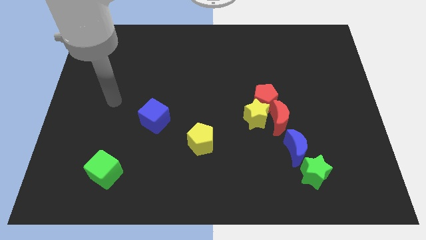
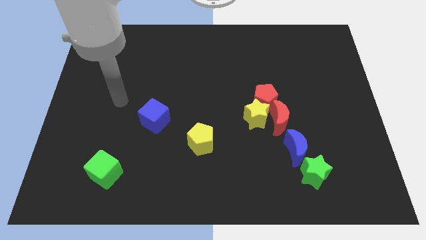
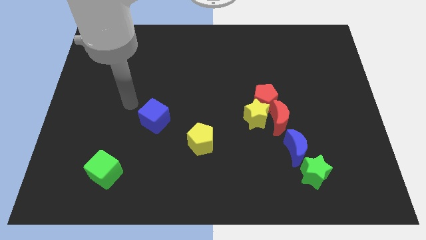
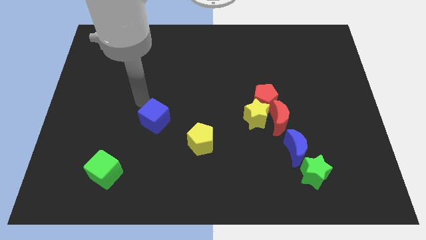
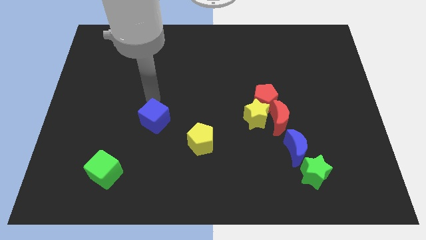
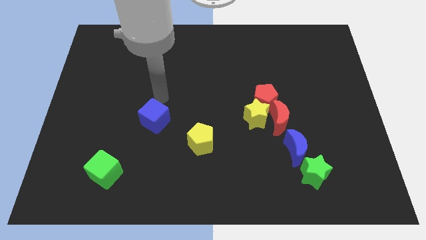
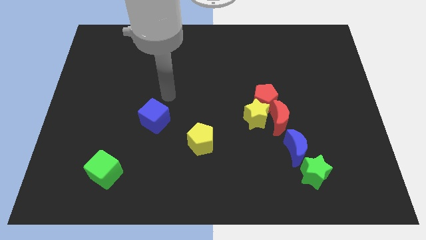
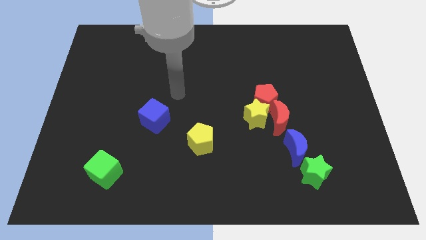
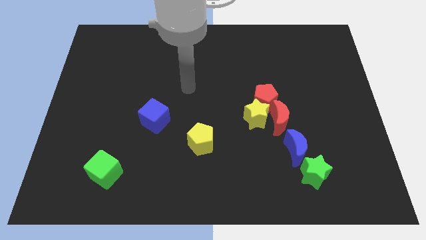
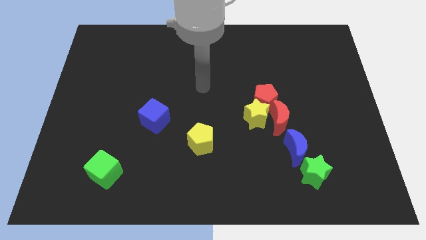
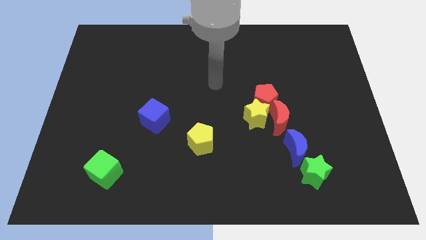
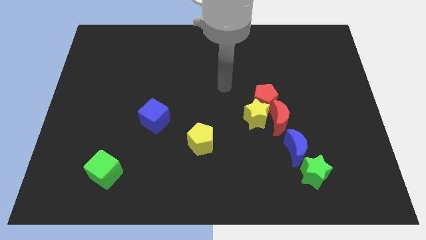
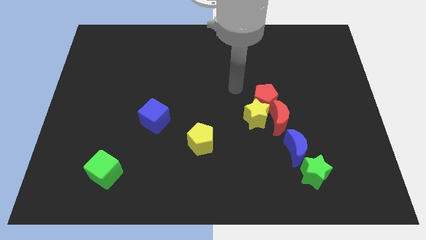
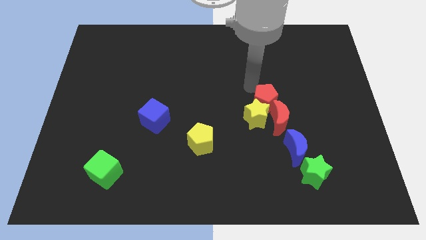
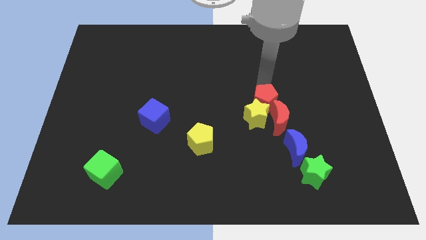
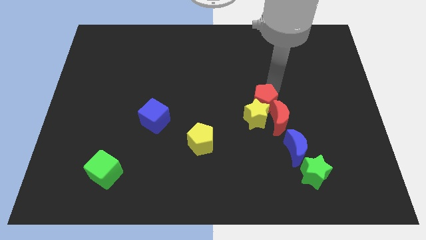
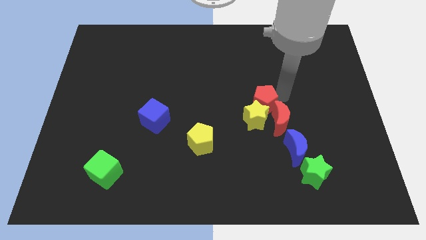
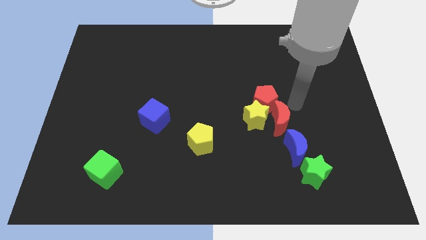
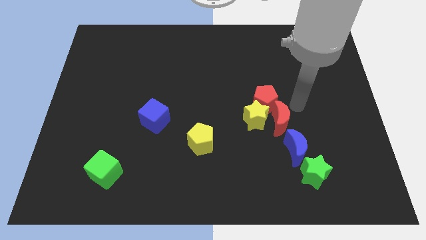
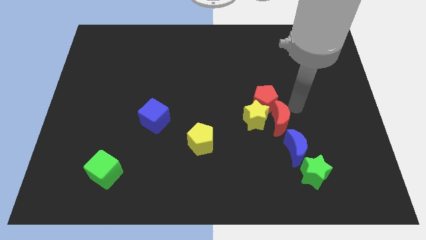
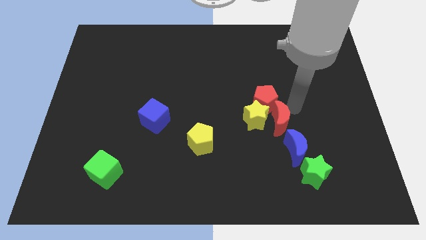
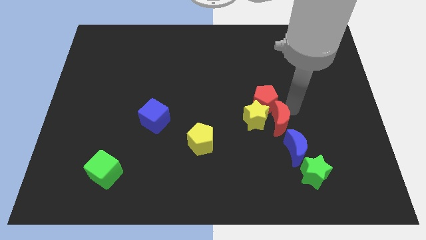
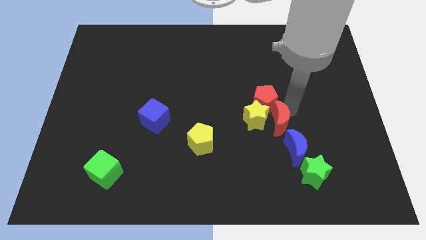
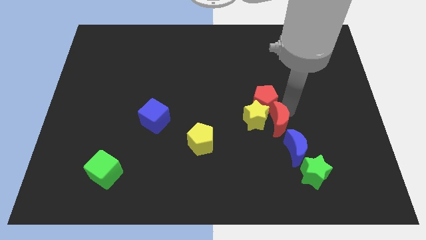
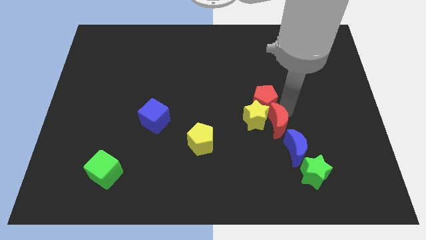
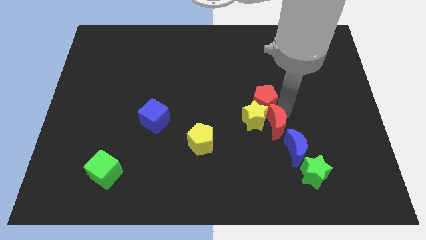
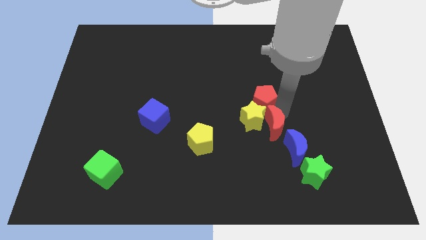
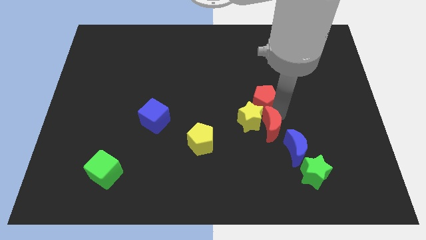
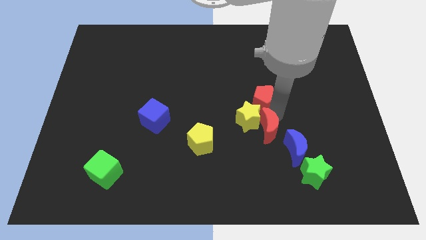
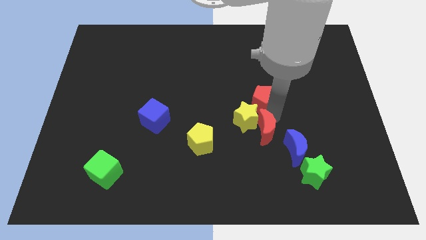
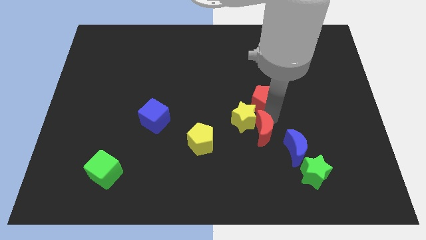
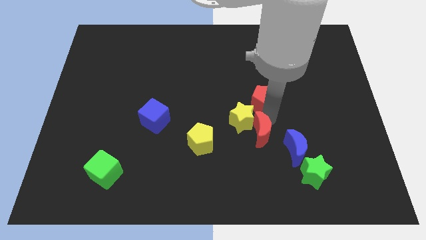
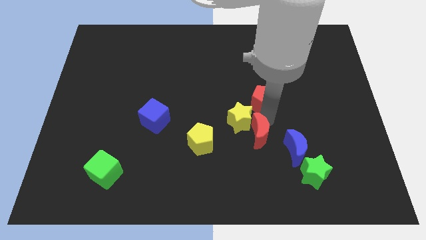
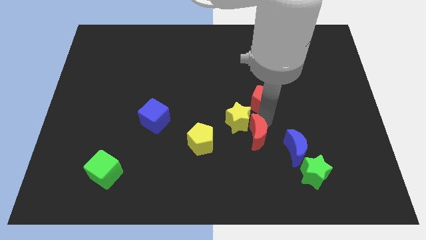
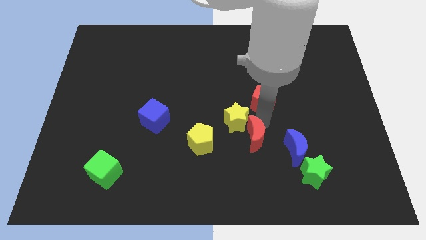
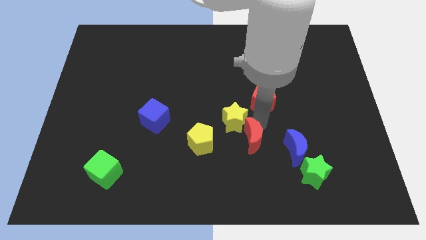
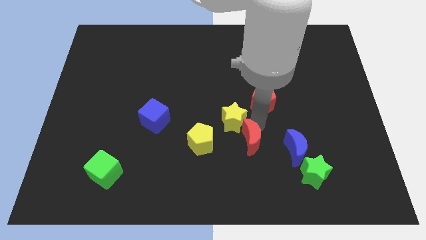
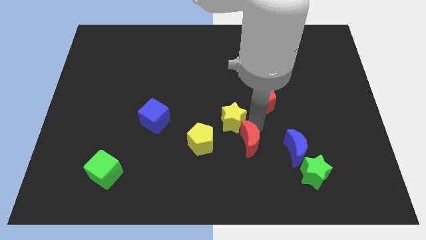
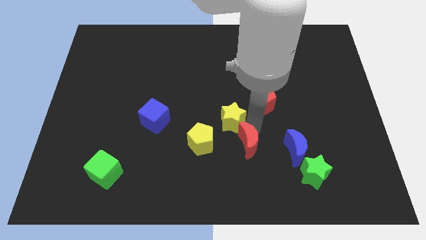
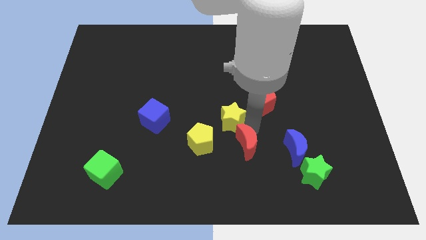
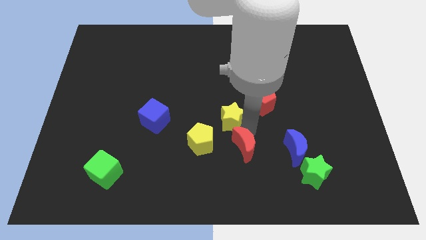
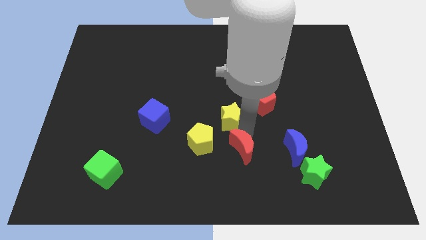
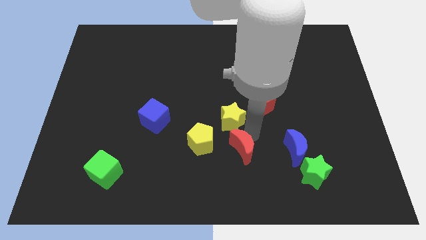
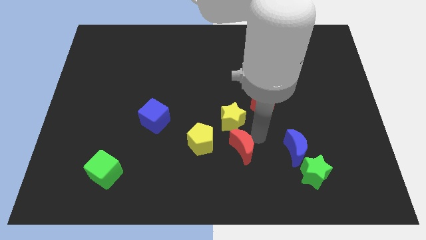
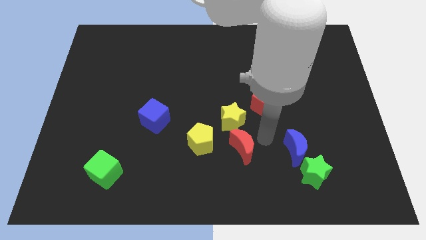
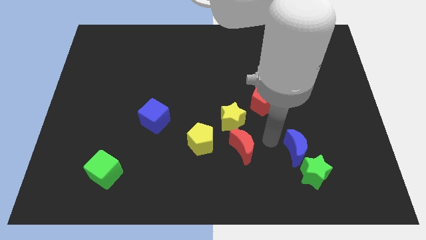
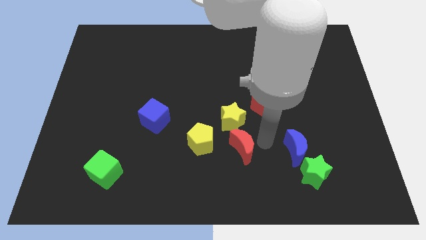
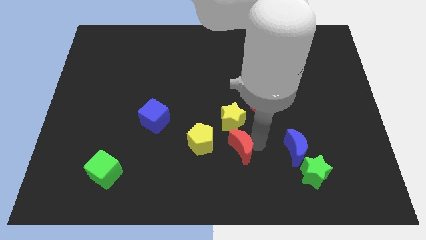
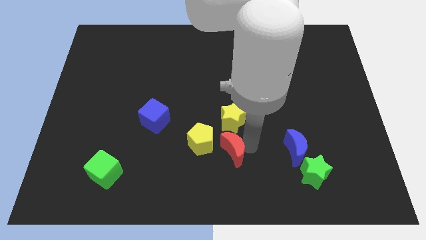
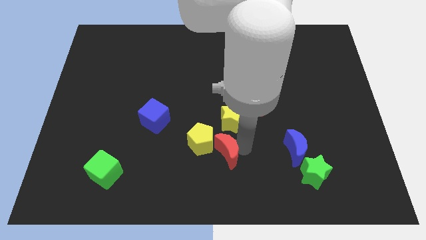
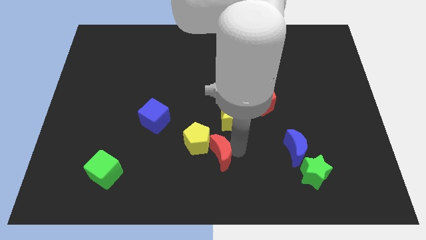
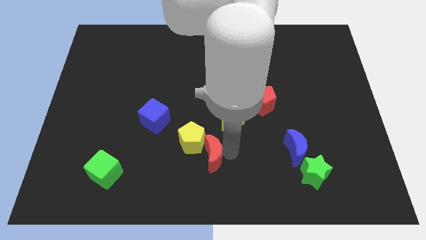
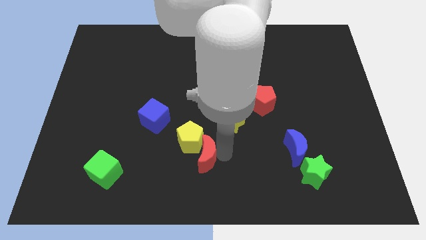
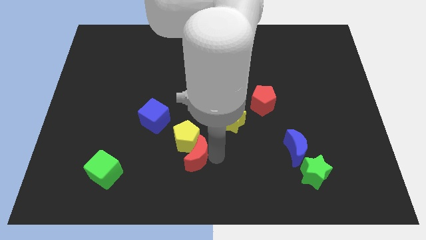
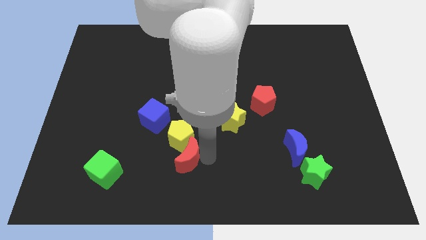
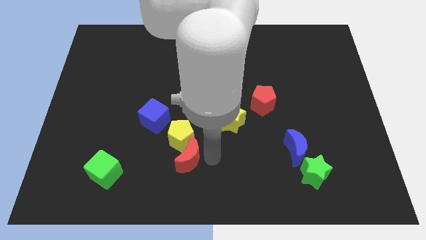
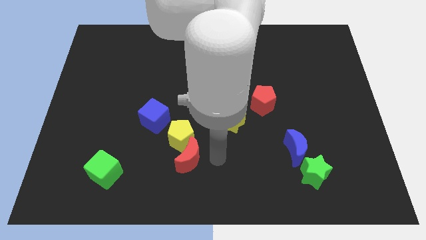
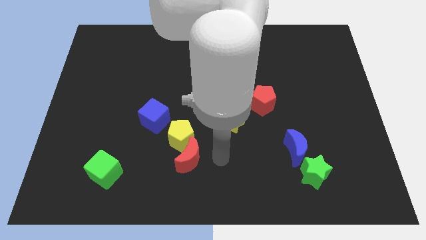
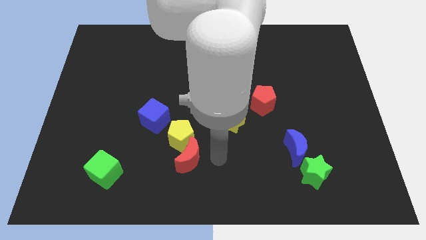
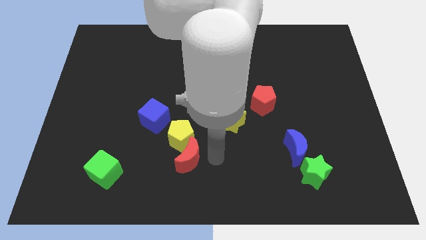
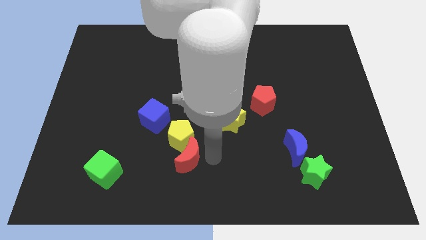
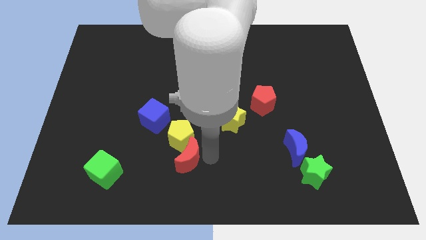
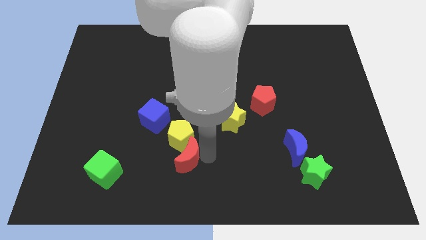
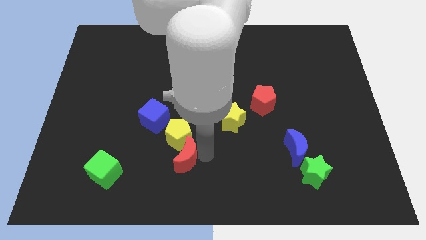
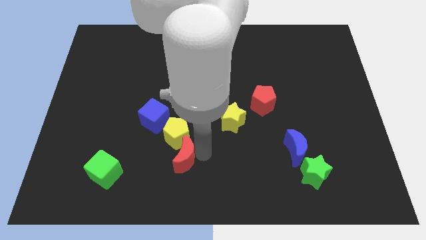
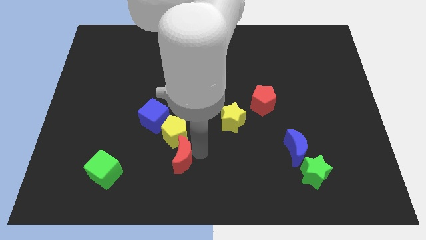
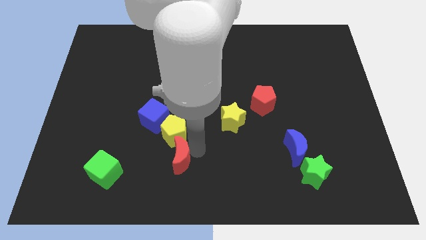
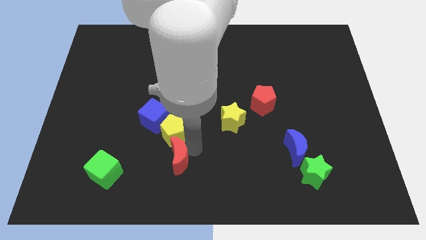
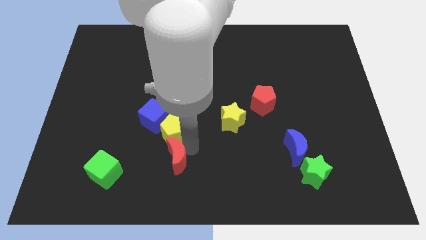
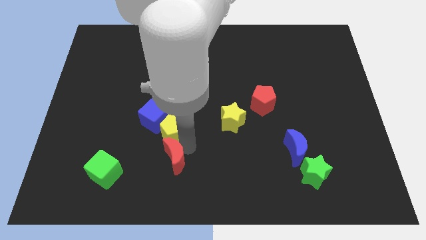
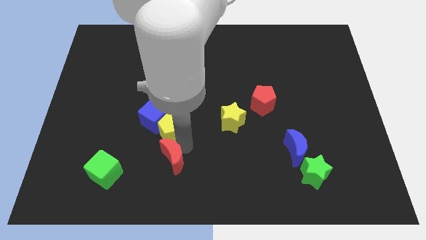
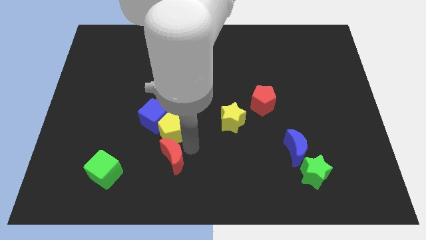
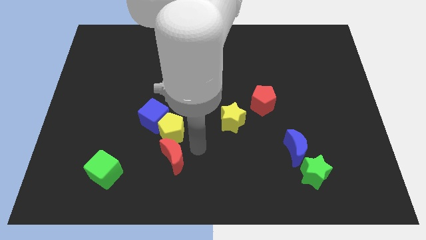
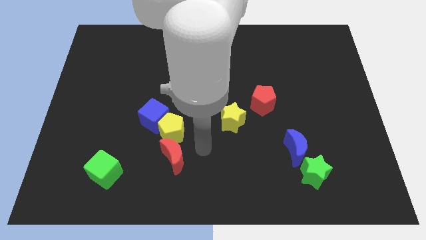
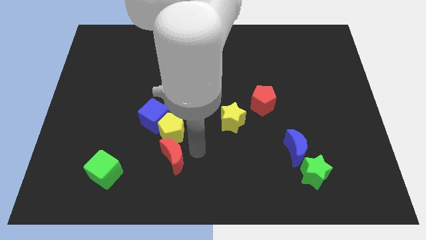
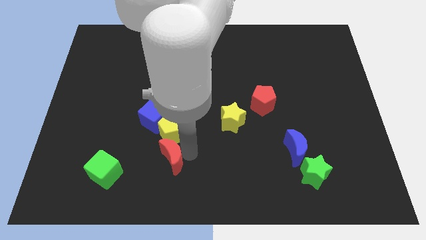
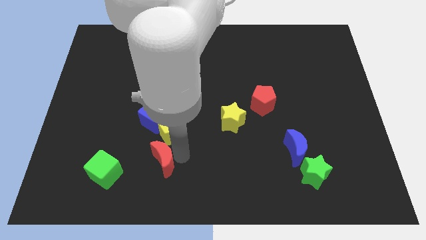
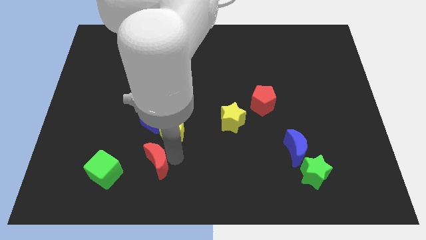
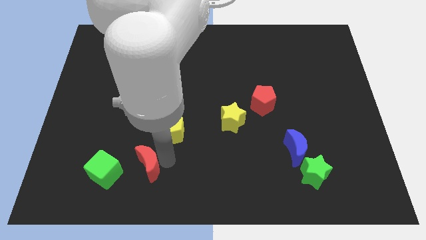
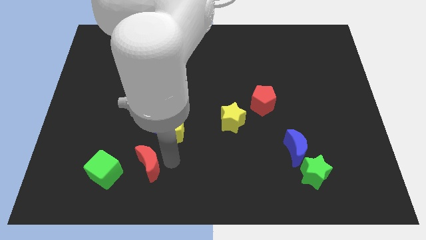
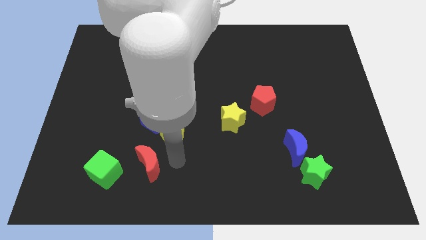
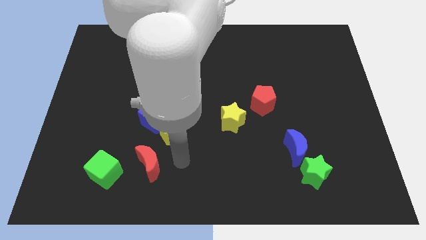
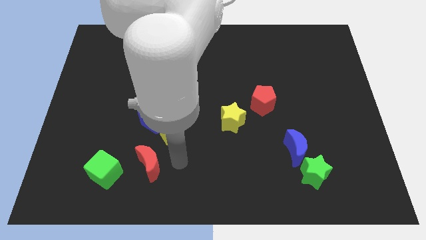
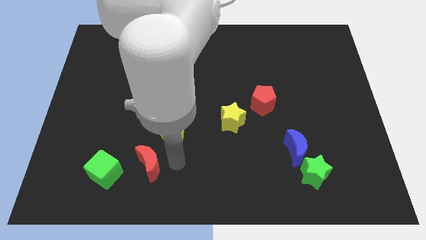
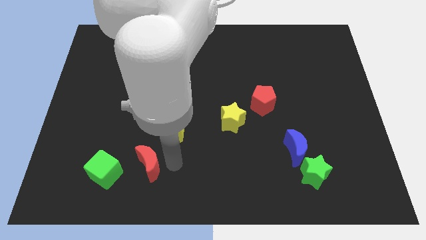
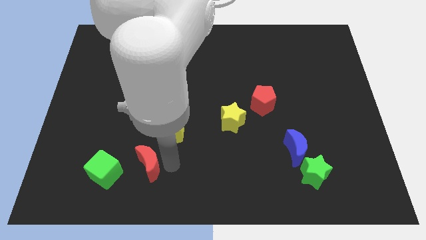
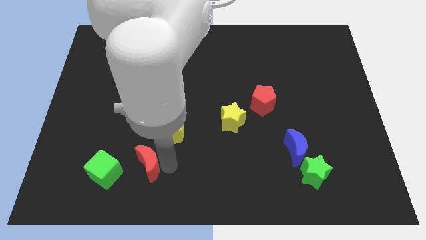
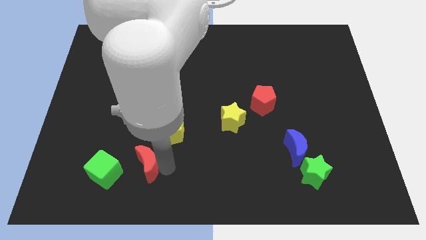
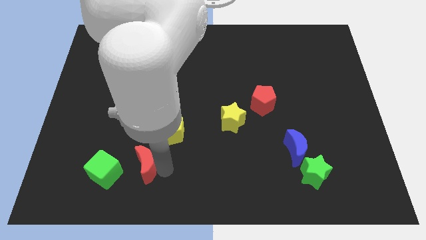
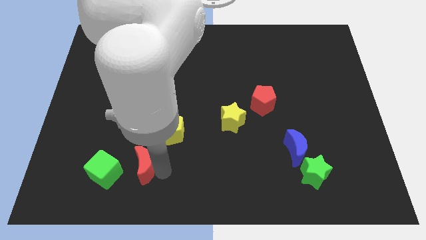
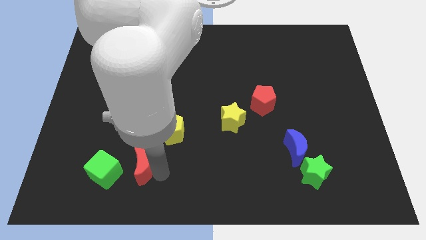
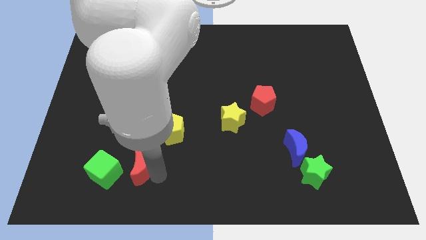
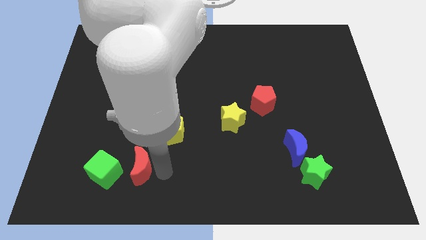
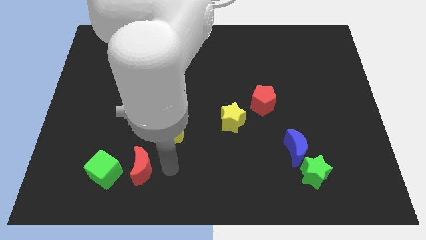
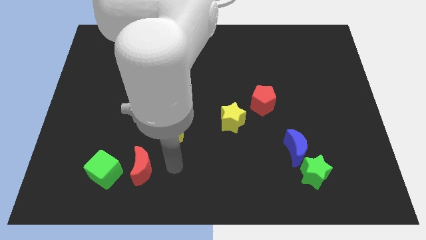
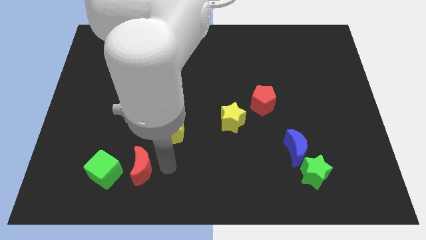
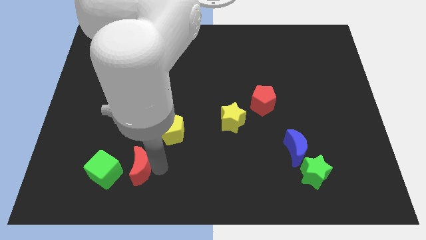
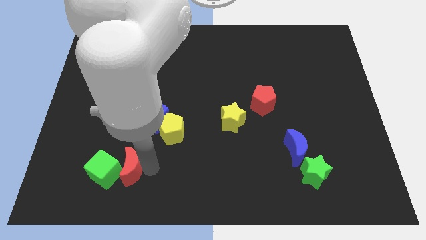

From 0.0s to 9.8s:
put the red moon towards the green cube
